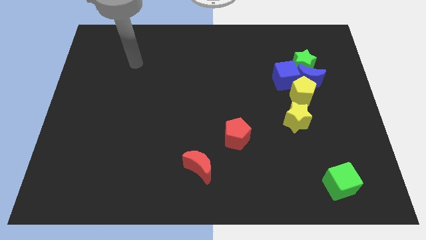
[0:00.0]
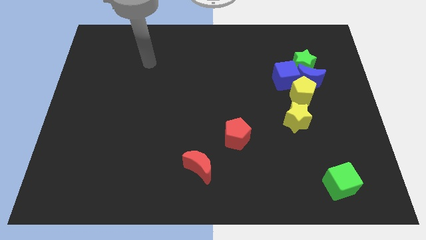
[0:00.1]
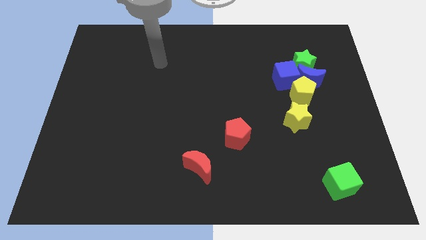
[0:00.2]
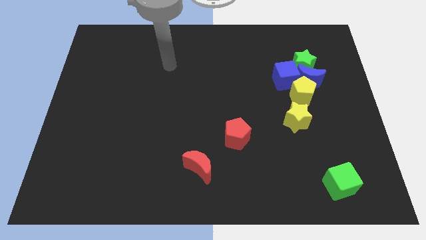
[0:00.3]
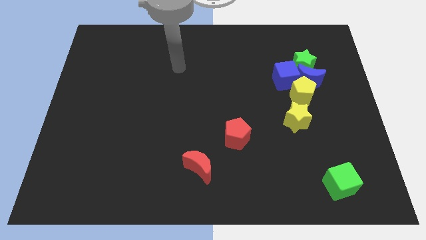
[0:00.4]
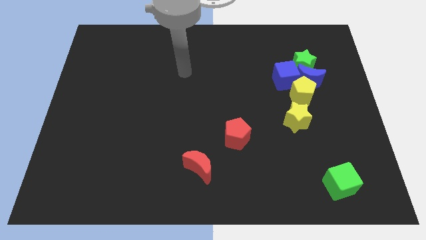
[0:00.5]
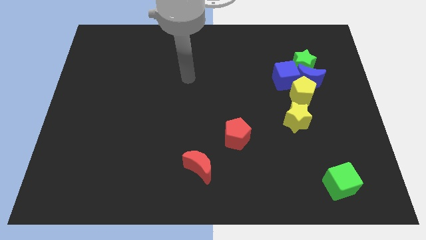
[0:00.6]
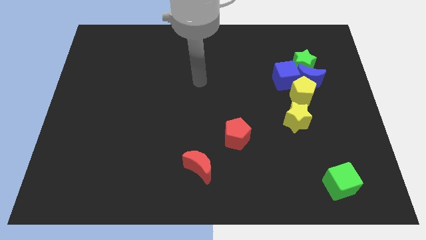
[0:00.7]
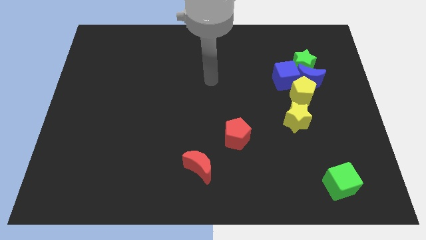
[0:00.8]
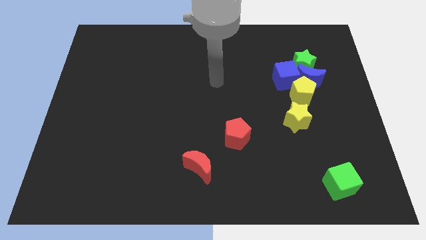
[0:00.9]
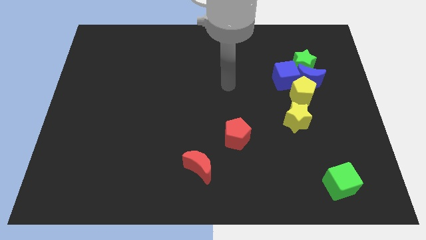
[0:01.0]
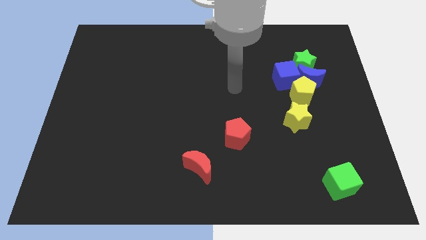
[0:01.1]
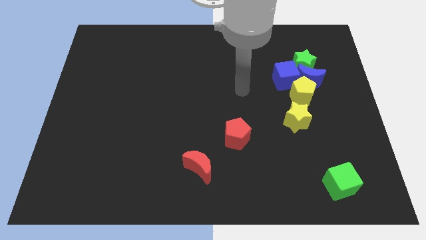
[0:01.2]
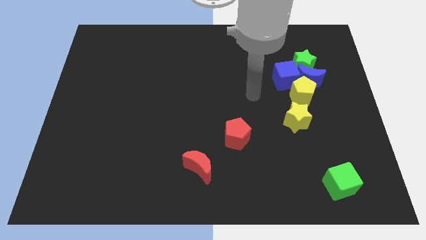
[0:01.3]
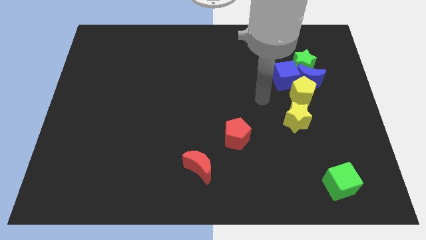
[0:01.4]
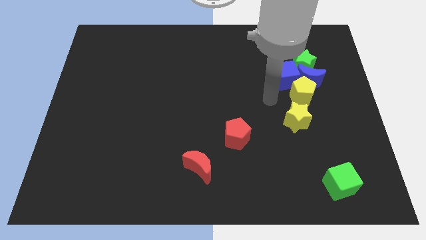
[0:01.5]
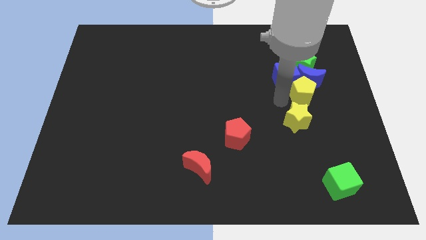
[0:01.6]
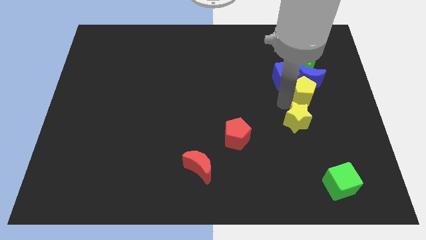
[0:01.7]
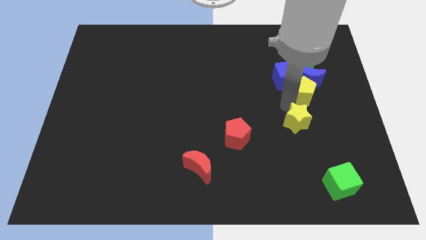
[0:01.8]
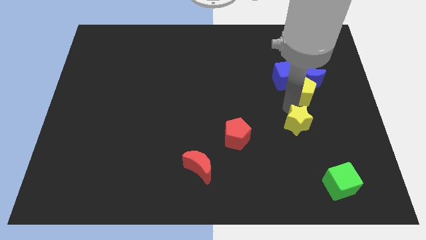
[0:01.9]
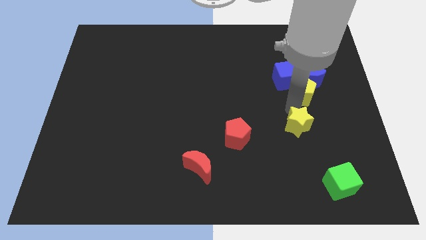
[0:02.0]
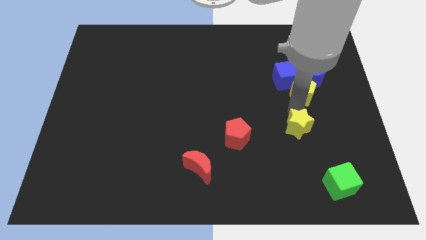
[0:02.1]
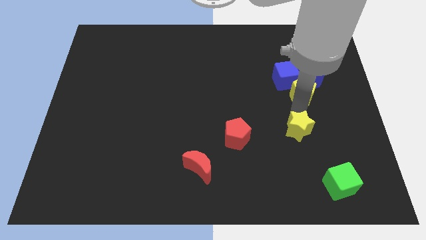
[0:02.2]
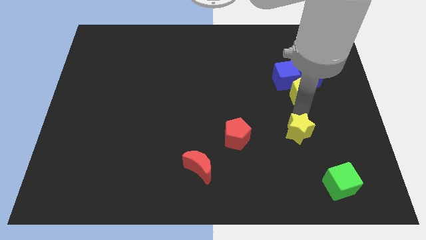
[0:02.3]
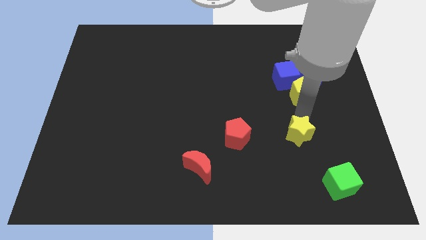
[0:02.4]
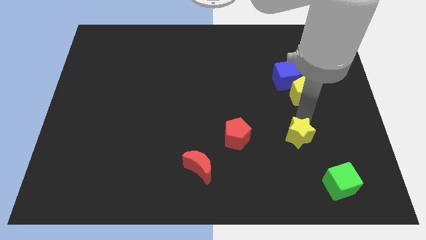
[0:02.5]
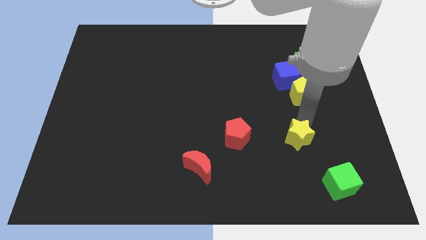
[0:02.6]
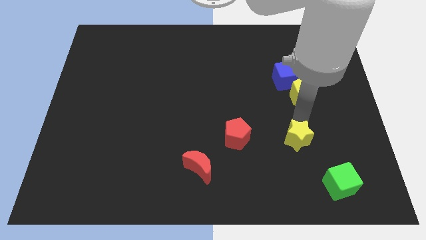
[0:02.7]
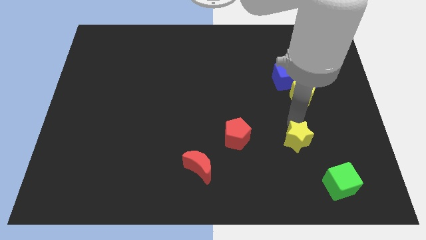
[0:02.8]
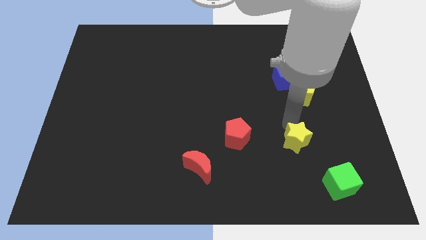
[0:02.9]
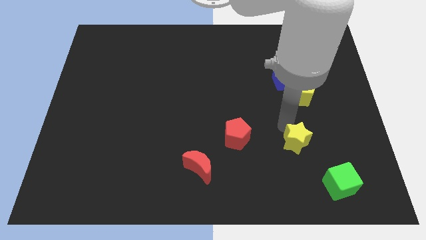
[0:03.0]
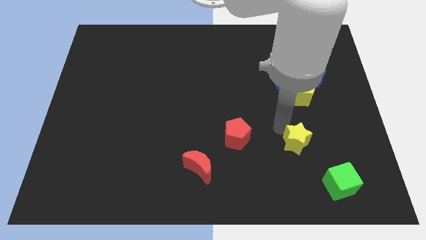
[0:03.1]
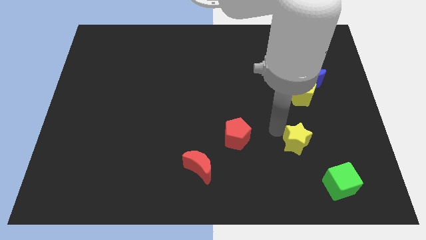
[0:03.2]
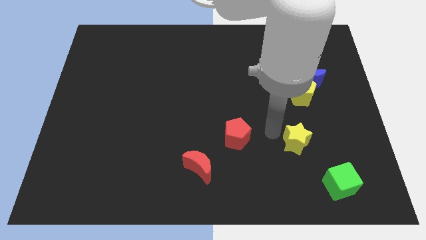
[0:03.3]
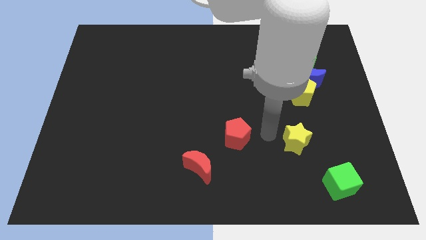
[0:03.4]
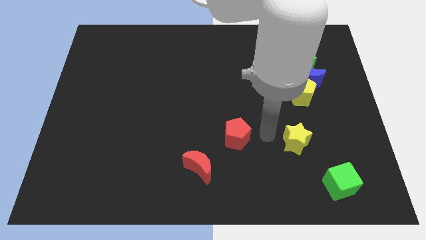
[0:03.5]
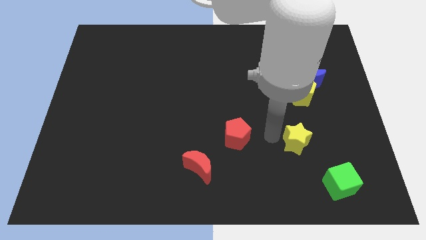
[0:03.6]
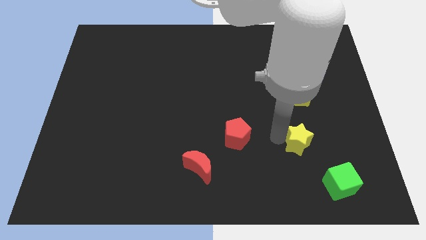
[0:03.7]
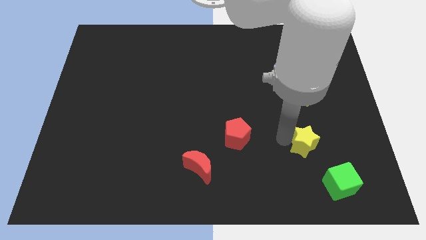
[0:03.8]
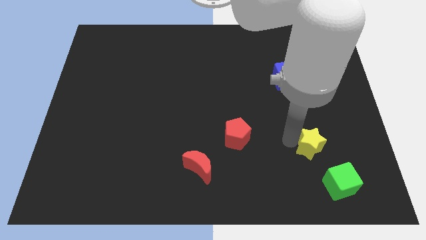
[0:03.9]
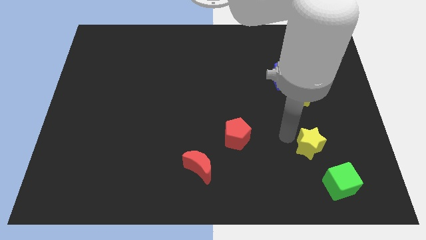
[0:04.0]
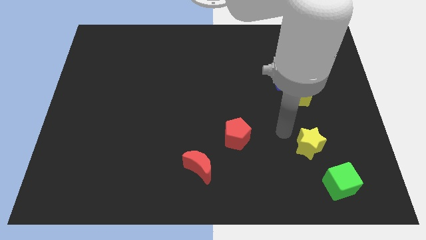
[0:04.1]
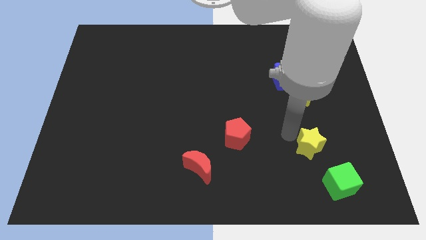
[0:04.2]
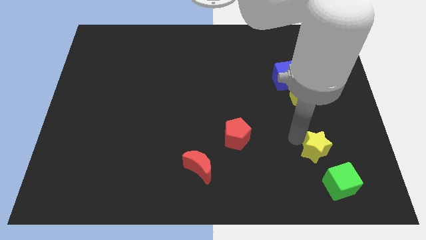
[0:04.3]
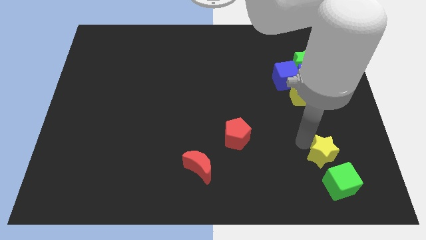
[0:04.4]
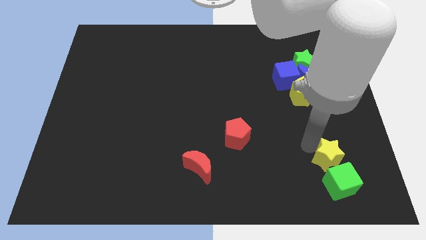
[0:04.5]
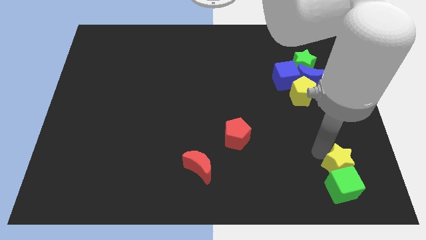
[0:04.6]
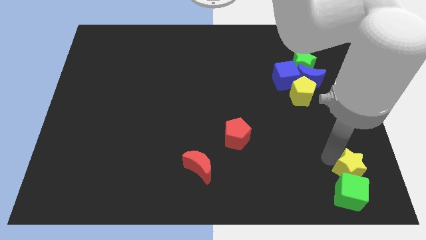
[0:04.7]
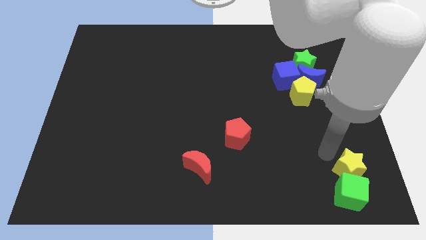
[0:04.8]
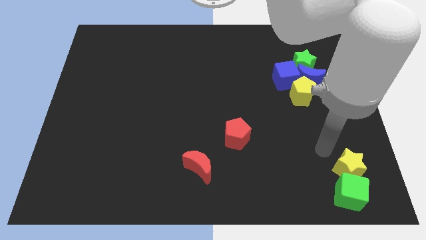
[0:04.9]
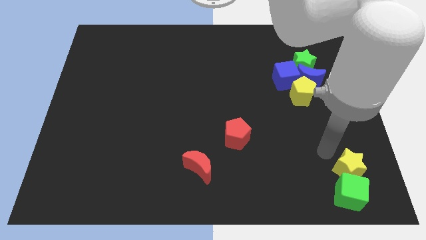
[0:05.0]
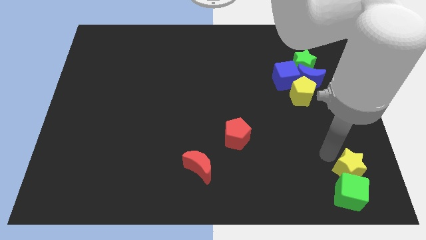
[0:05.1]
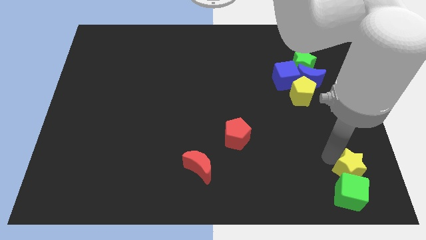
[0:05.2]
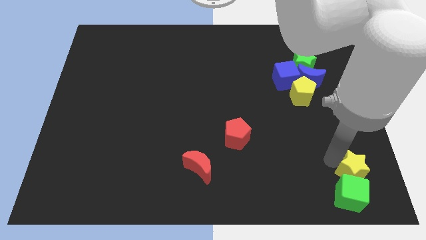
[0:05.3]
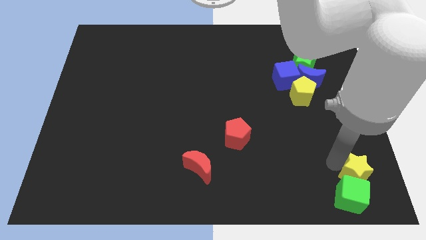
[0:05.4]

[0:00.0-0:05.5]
push the yellow star to the lower right corner

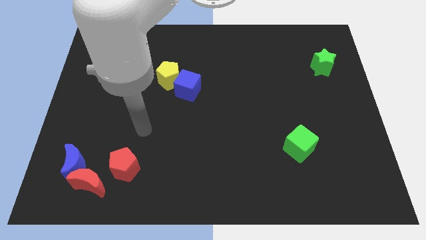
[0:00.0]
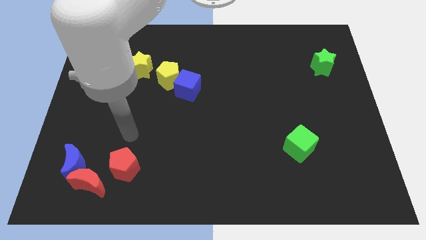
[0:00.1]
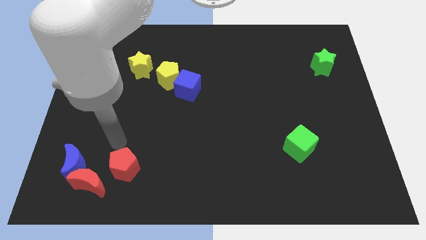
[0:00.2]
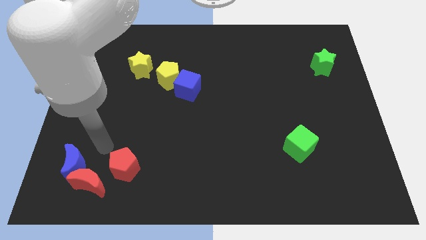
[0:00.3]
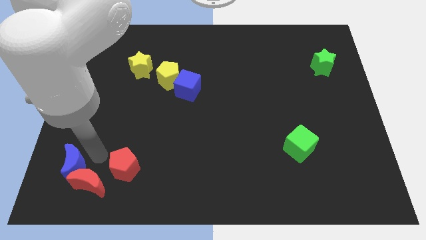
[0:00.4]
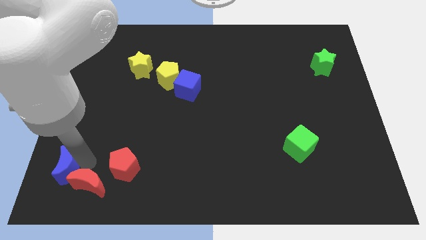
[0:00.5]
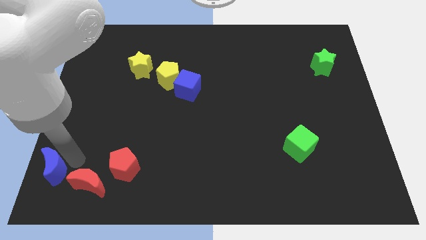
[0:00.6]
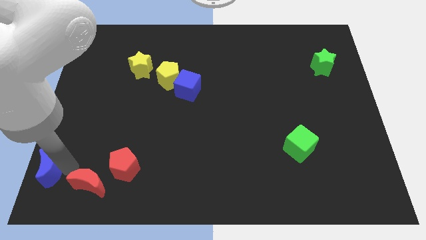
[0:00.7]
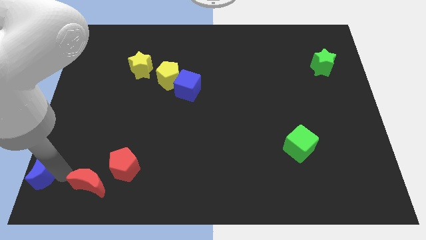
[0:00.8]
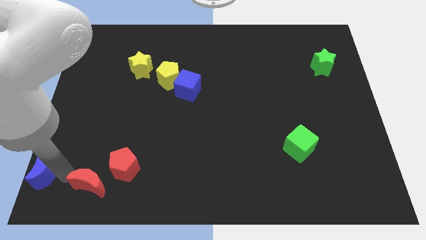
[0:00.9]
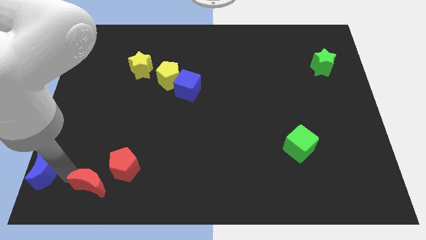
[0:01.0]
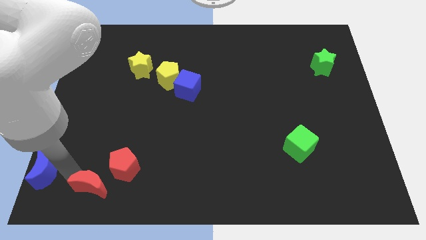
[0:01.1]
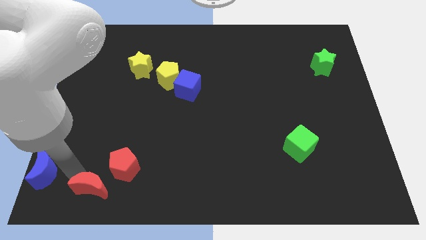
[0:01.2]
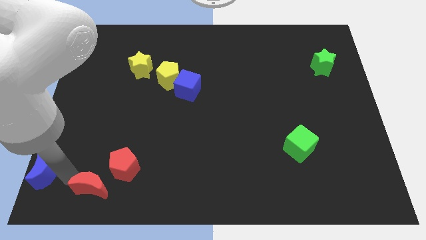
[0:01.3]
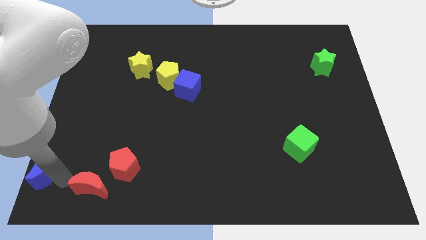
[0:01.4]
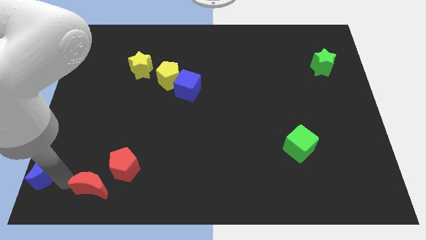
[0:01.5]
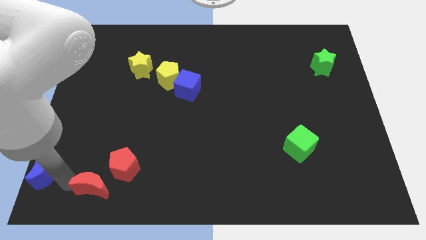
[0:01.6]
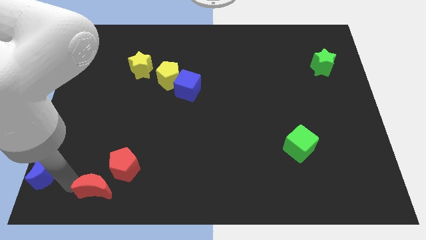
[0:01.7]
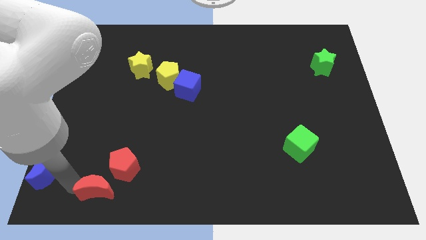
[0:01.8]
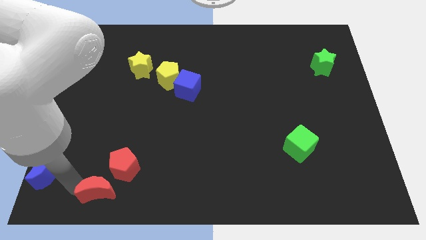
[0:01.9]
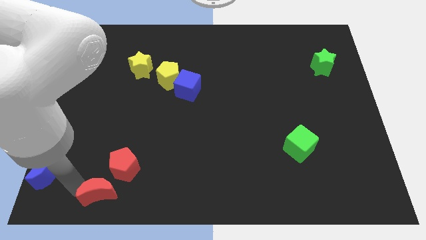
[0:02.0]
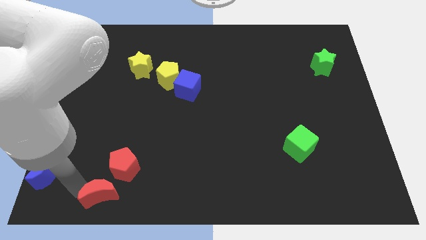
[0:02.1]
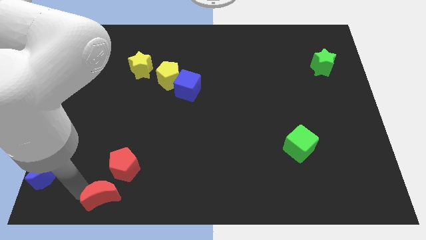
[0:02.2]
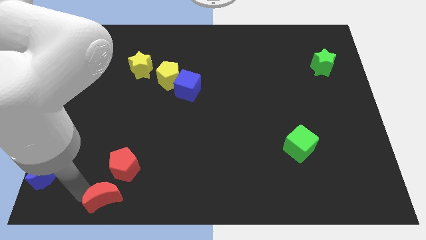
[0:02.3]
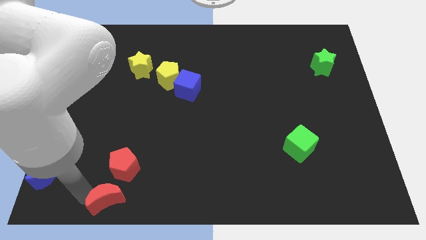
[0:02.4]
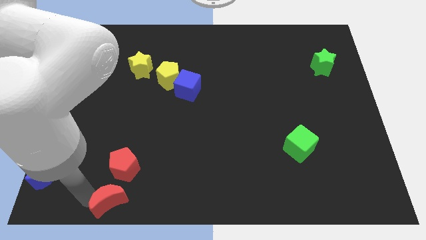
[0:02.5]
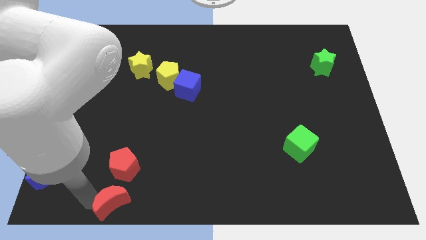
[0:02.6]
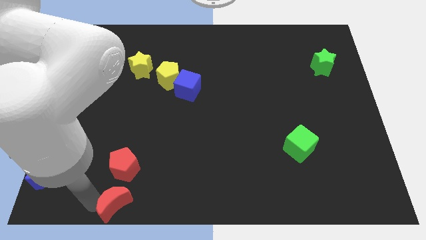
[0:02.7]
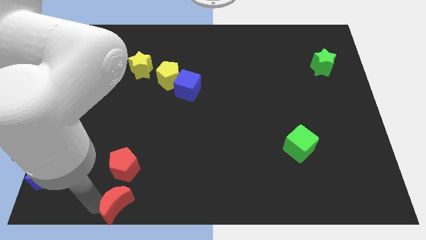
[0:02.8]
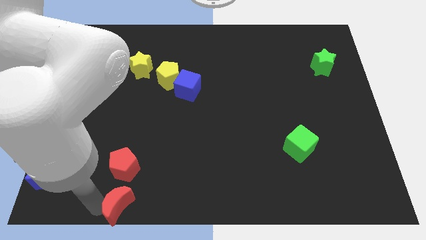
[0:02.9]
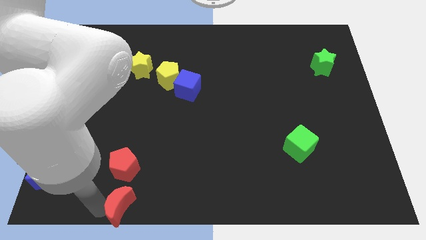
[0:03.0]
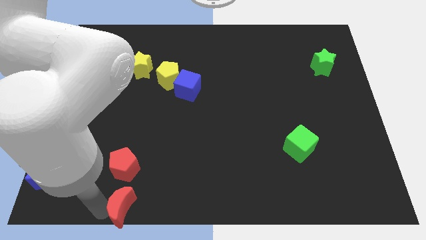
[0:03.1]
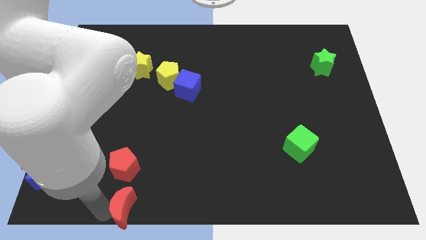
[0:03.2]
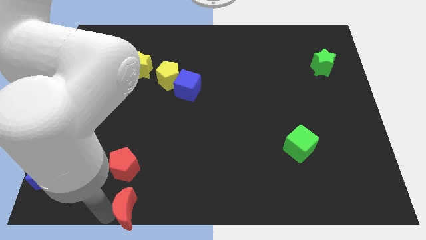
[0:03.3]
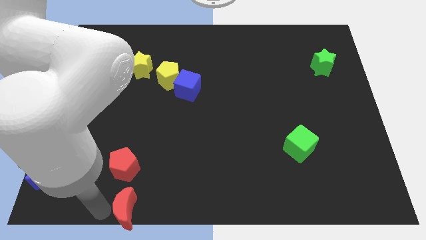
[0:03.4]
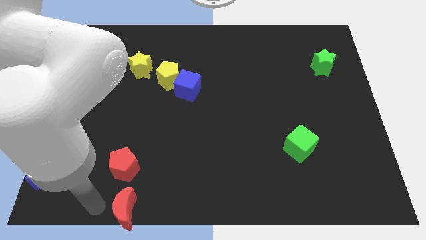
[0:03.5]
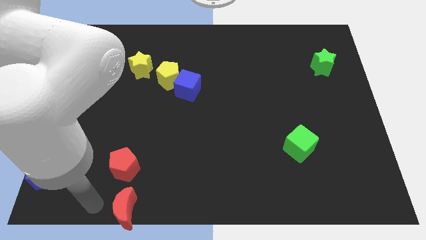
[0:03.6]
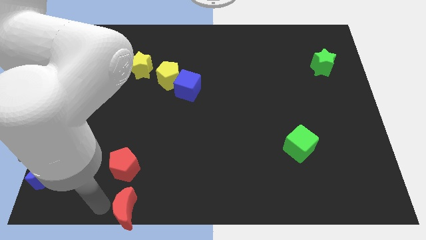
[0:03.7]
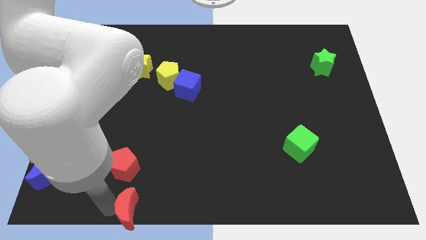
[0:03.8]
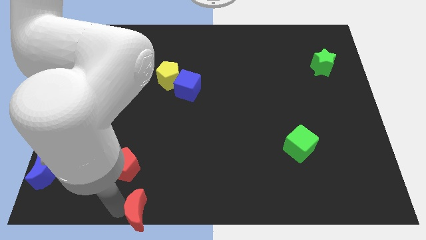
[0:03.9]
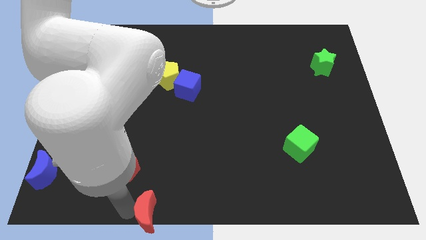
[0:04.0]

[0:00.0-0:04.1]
slide the red moon to the bottom
